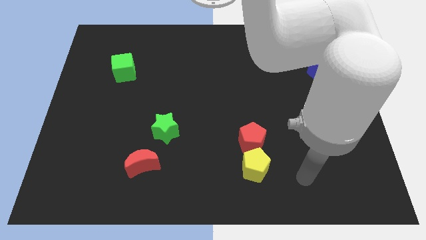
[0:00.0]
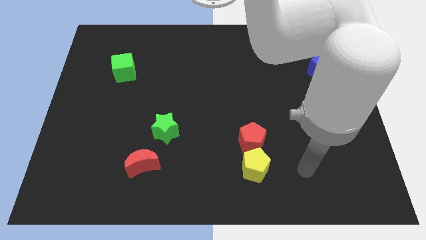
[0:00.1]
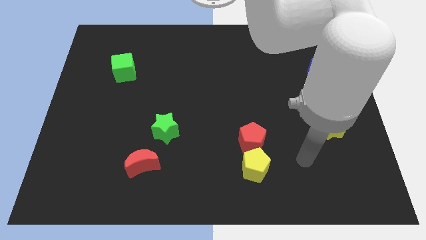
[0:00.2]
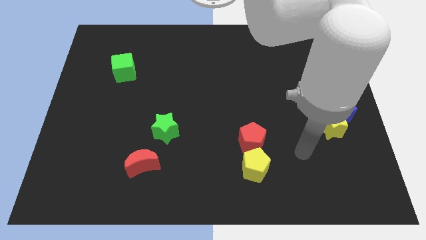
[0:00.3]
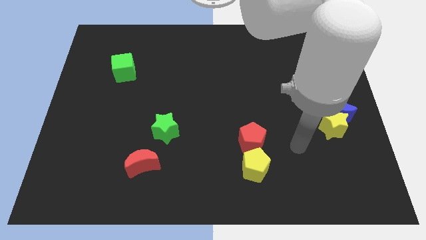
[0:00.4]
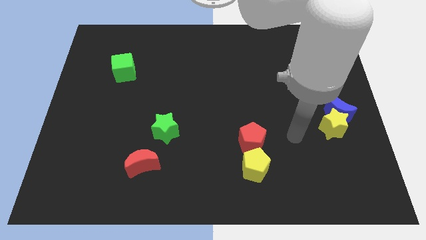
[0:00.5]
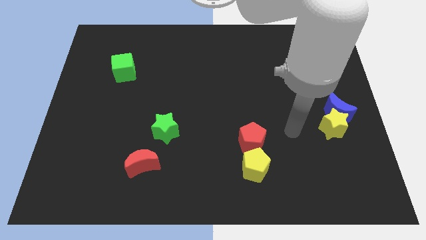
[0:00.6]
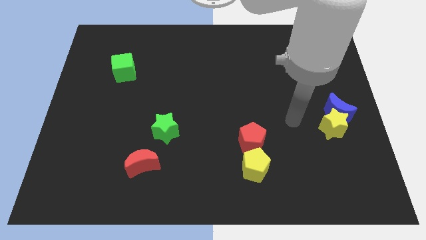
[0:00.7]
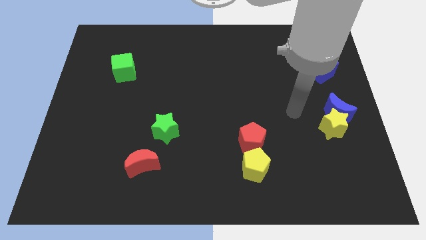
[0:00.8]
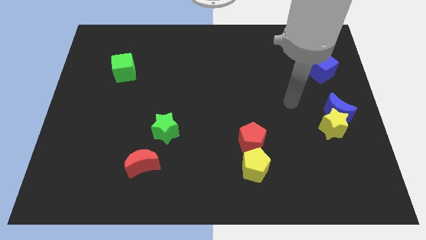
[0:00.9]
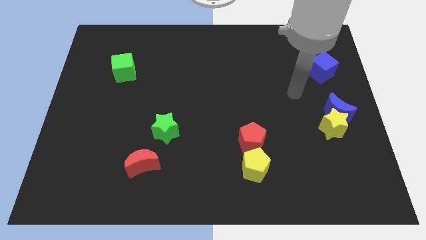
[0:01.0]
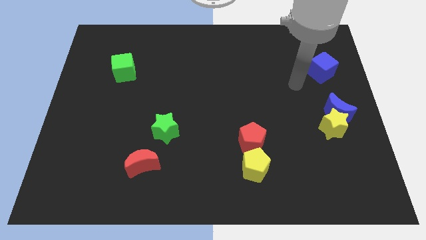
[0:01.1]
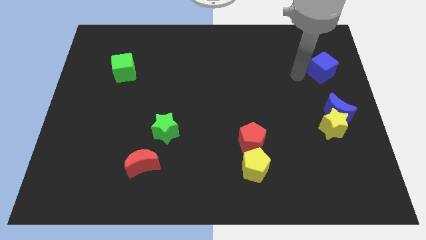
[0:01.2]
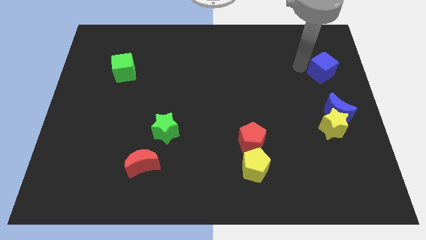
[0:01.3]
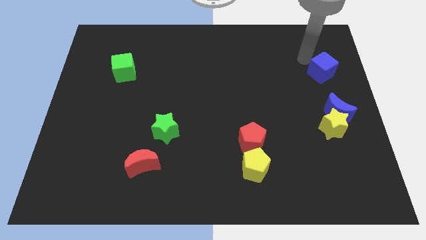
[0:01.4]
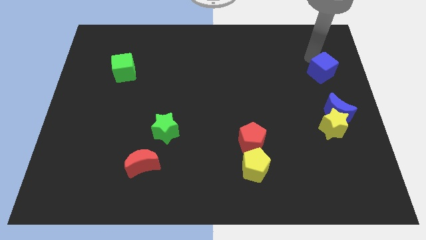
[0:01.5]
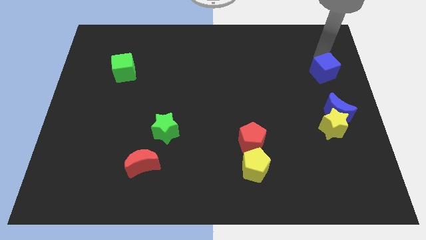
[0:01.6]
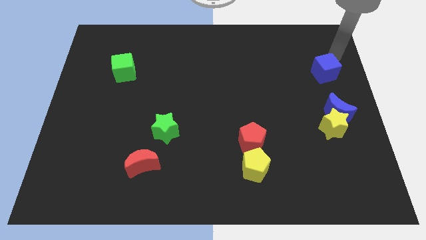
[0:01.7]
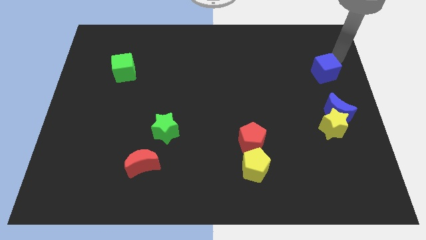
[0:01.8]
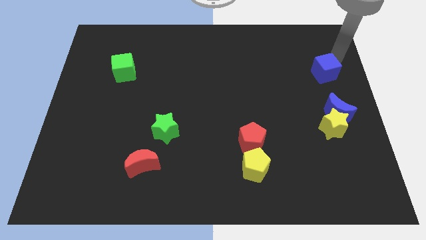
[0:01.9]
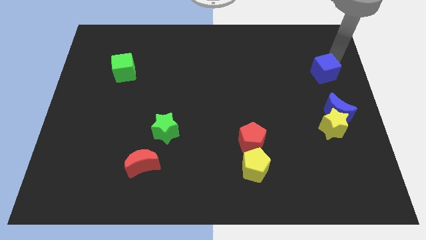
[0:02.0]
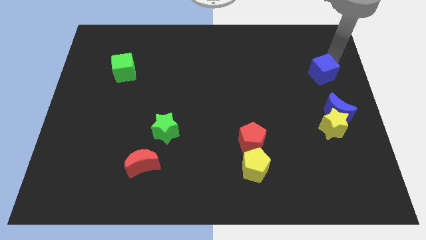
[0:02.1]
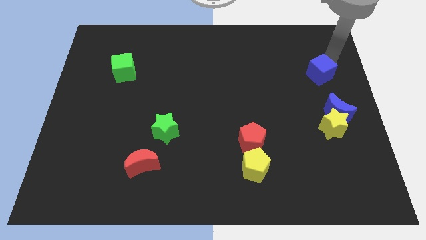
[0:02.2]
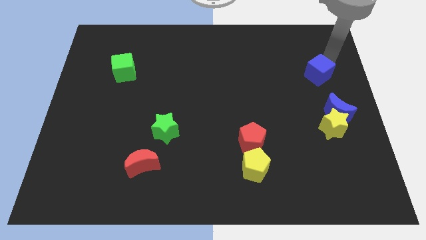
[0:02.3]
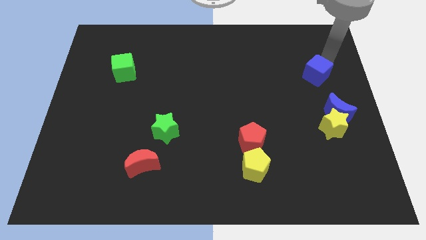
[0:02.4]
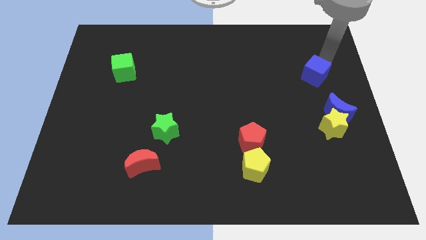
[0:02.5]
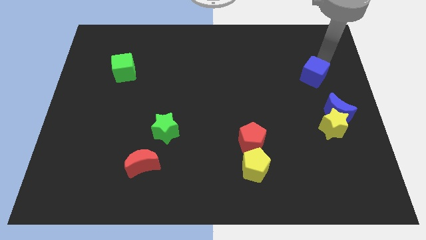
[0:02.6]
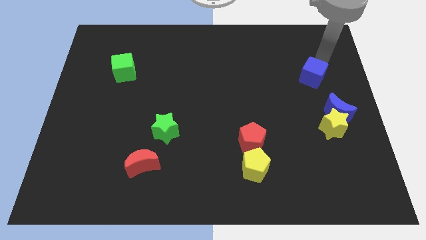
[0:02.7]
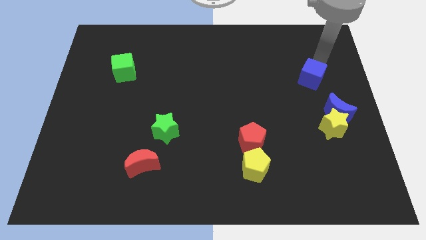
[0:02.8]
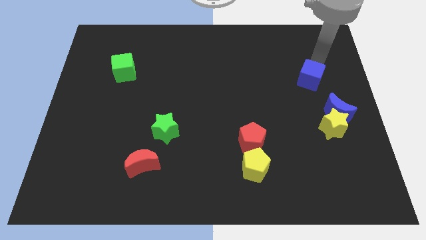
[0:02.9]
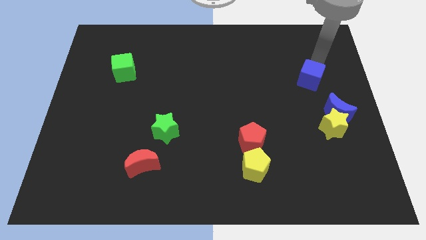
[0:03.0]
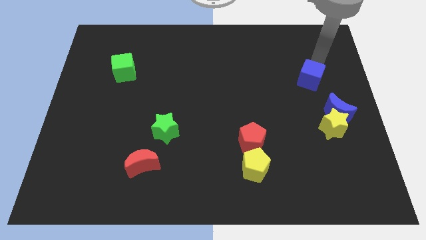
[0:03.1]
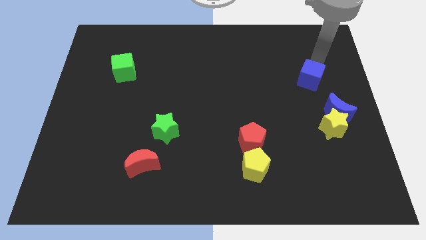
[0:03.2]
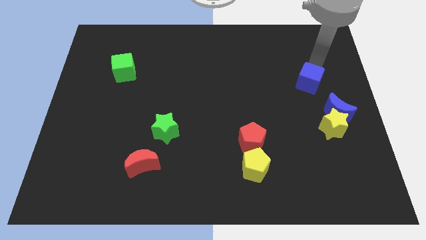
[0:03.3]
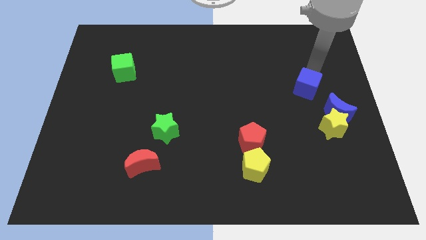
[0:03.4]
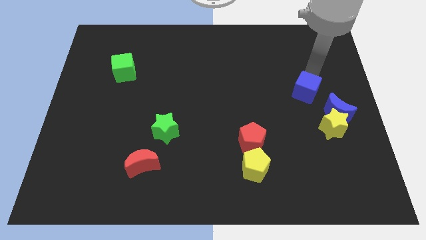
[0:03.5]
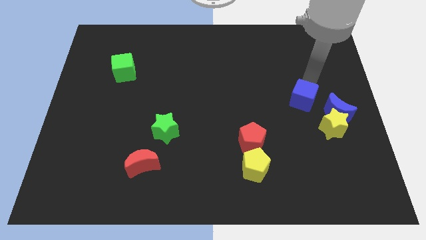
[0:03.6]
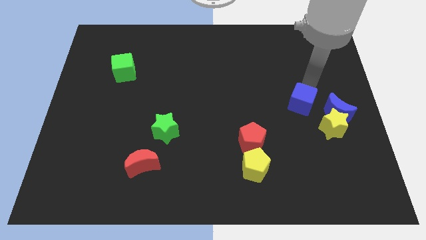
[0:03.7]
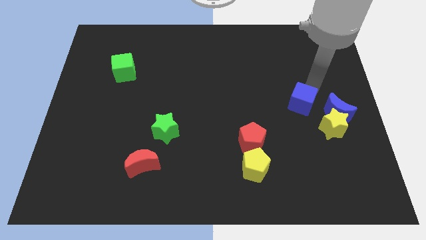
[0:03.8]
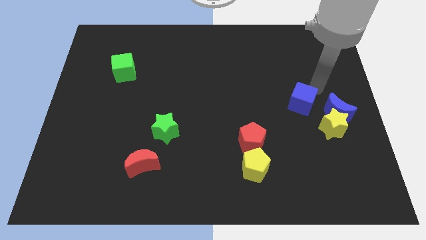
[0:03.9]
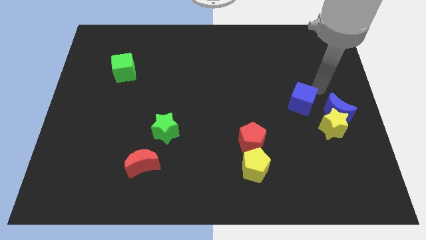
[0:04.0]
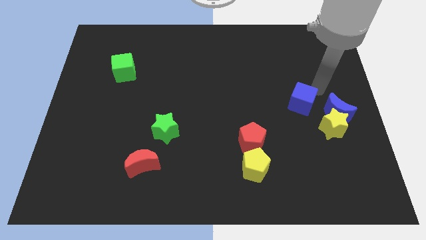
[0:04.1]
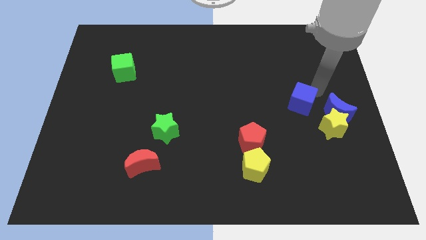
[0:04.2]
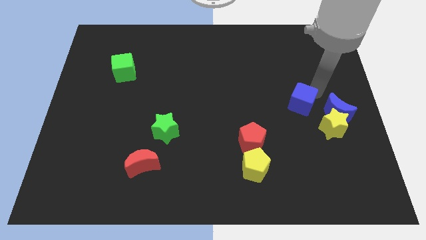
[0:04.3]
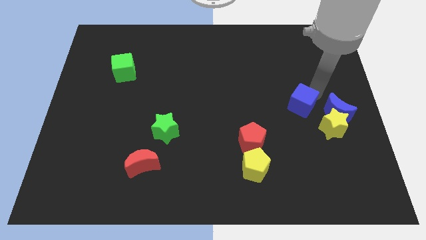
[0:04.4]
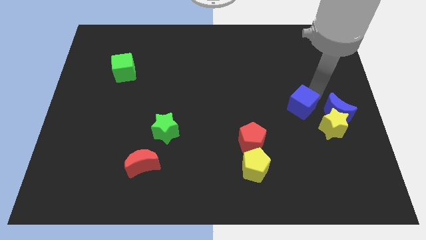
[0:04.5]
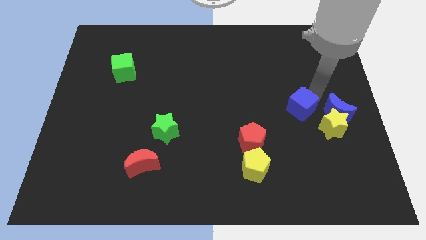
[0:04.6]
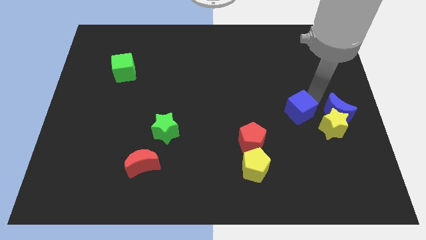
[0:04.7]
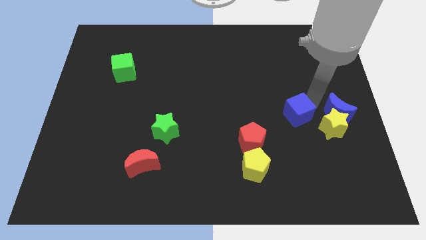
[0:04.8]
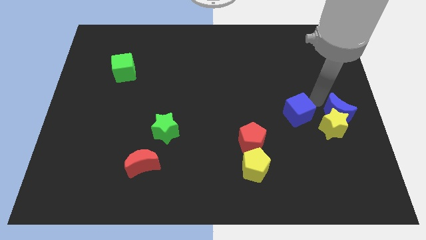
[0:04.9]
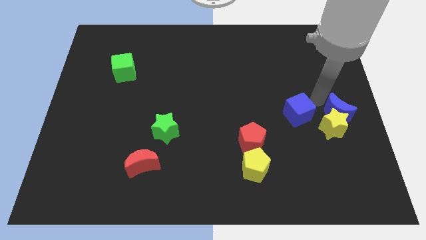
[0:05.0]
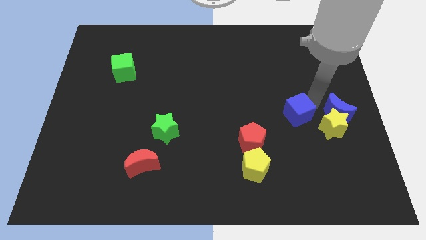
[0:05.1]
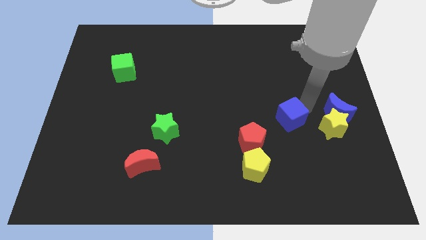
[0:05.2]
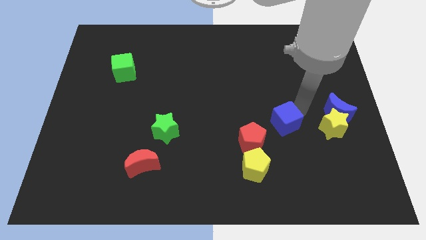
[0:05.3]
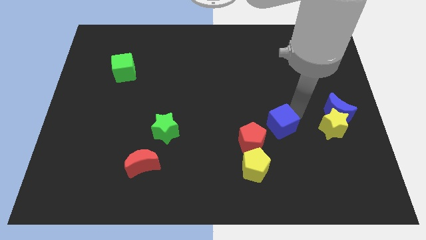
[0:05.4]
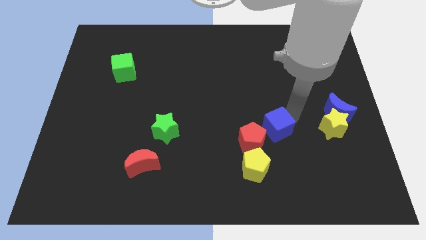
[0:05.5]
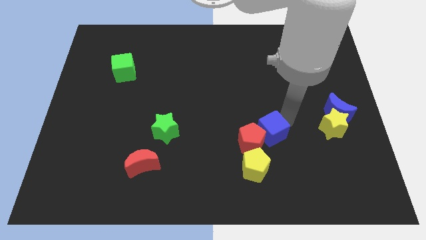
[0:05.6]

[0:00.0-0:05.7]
slide the blue cube towards the red pentagon

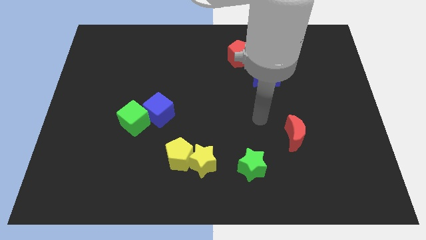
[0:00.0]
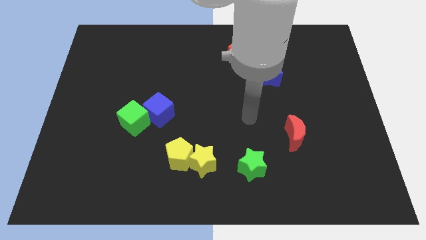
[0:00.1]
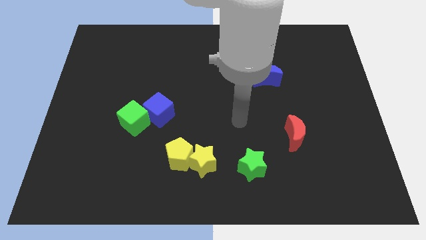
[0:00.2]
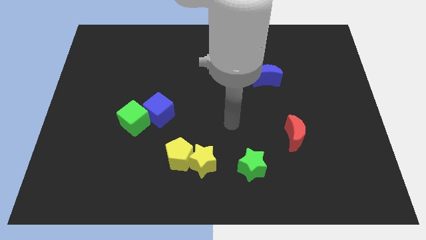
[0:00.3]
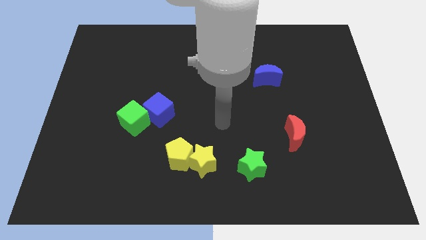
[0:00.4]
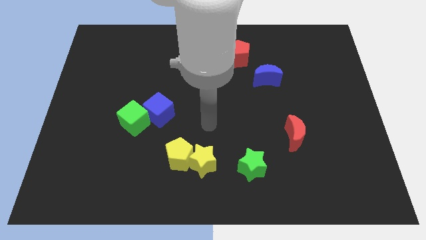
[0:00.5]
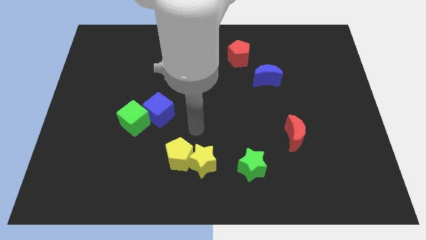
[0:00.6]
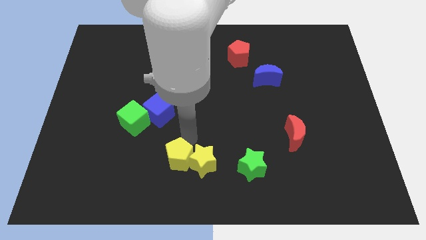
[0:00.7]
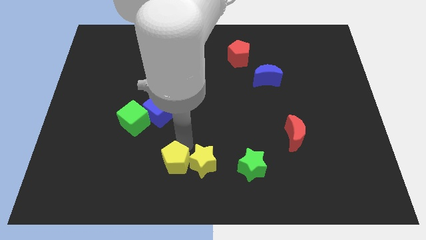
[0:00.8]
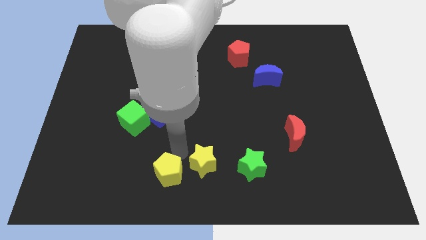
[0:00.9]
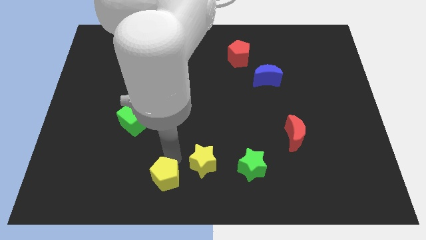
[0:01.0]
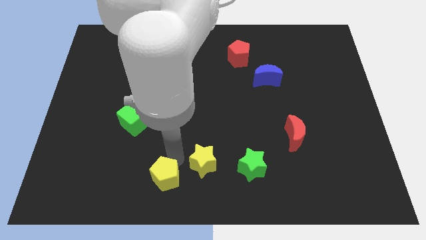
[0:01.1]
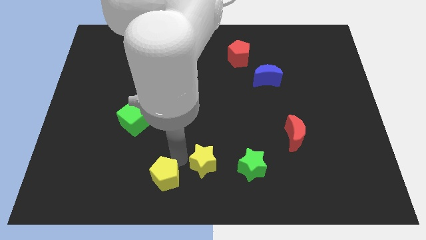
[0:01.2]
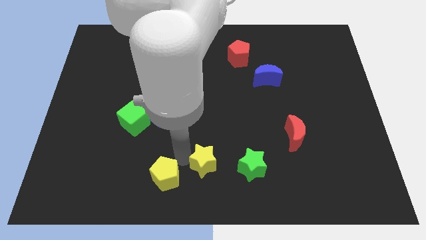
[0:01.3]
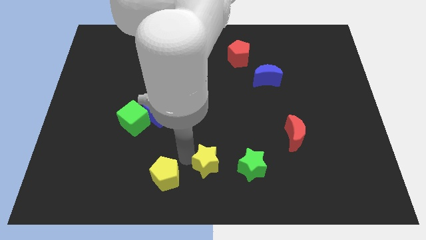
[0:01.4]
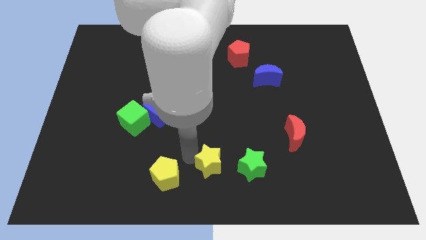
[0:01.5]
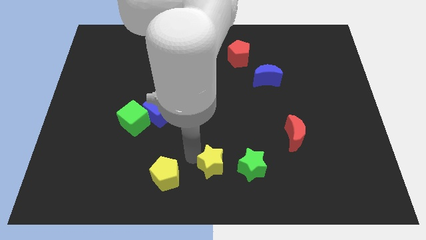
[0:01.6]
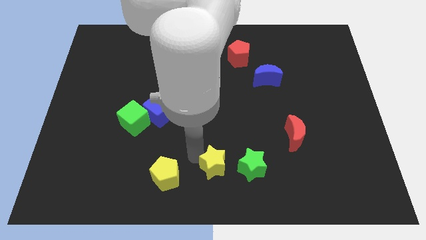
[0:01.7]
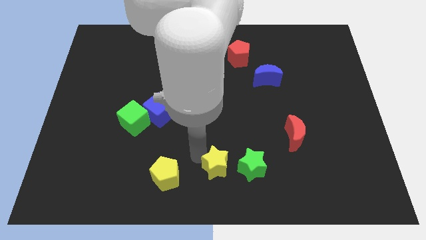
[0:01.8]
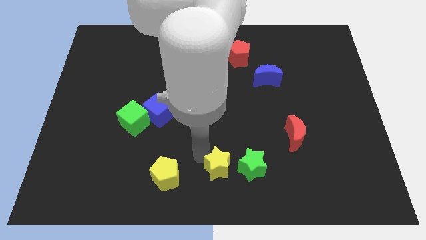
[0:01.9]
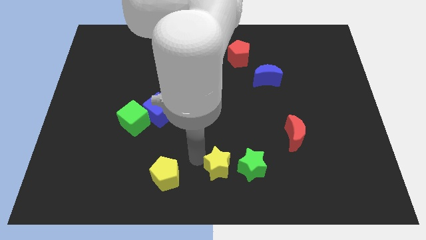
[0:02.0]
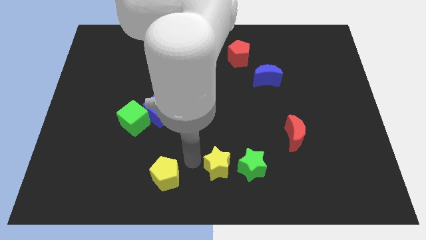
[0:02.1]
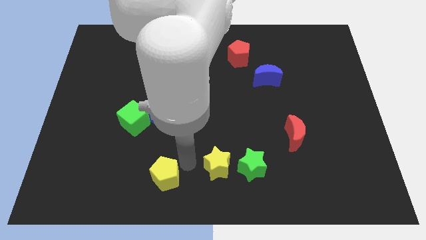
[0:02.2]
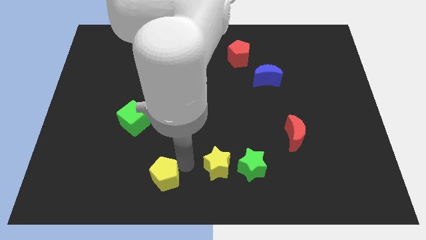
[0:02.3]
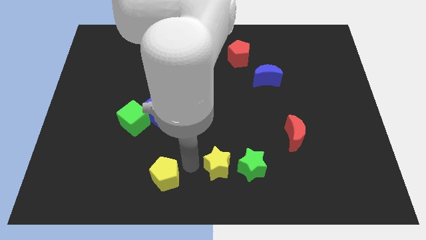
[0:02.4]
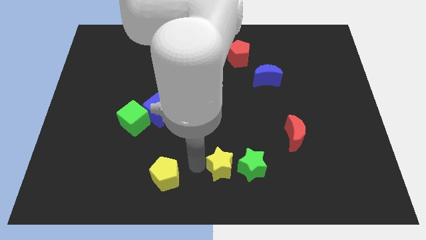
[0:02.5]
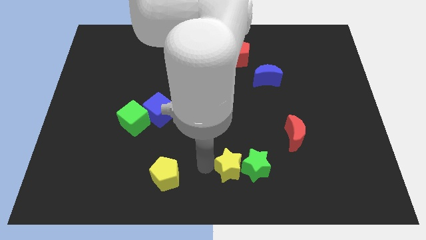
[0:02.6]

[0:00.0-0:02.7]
move the yellow star towards the green star
